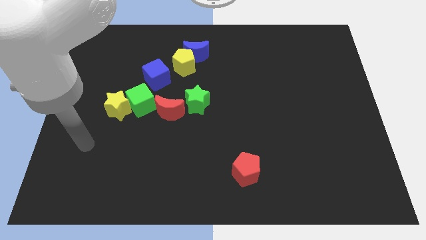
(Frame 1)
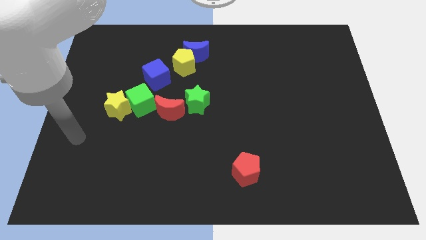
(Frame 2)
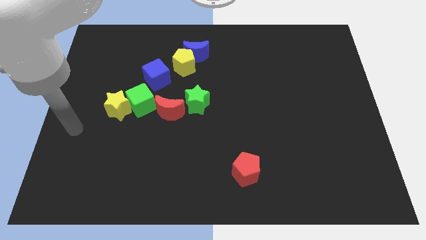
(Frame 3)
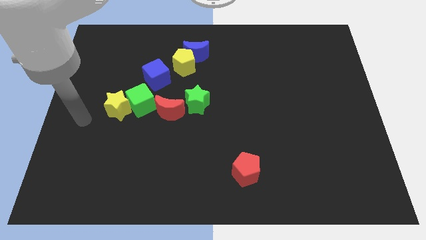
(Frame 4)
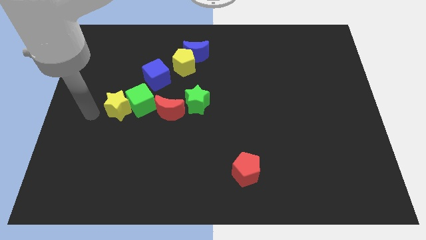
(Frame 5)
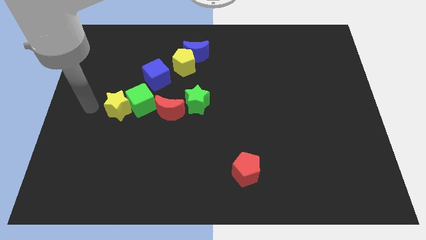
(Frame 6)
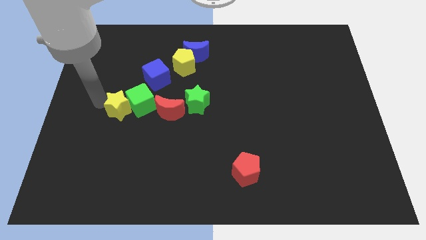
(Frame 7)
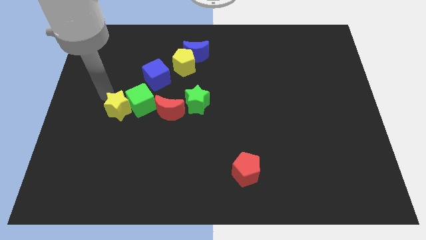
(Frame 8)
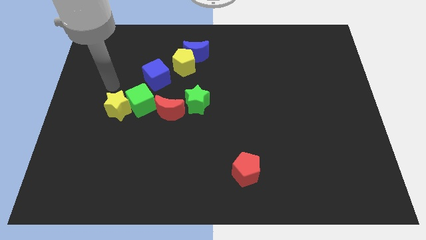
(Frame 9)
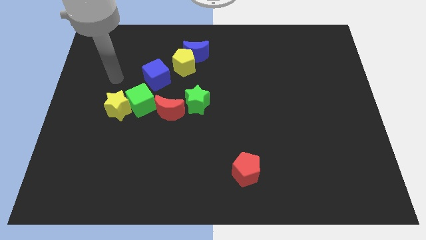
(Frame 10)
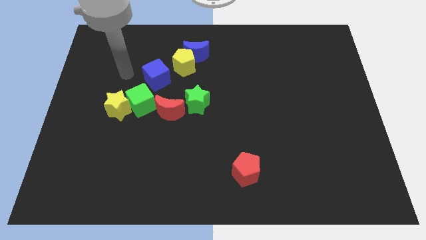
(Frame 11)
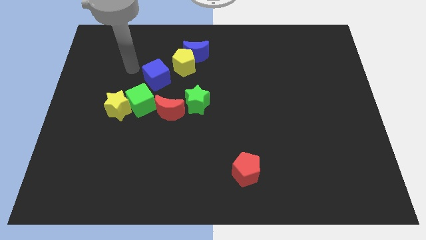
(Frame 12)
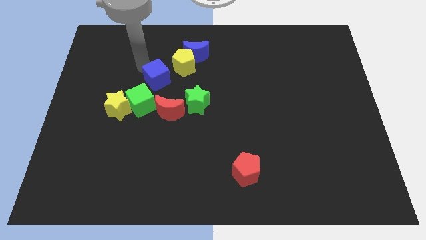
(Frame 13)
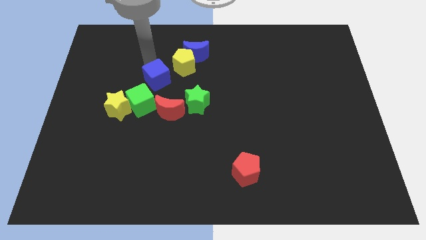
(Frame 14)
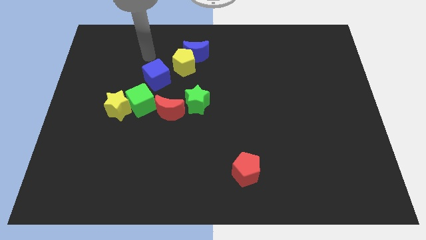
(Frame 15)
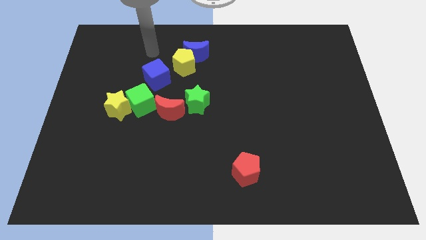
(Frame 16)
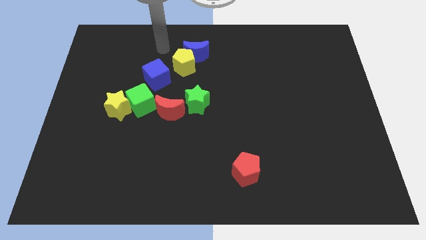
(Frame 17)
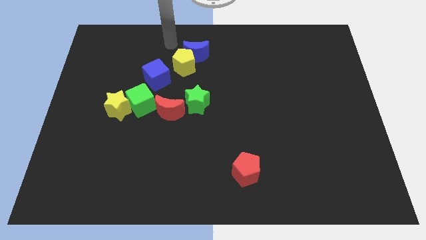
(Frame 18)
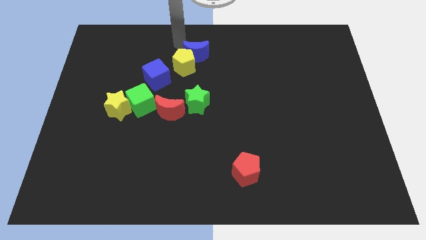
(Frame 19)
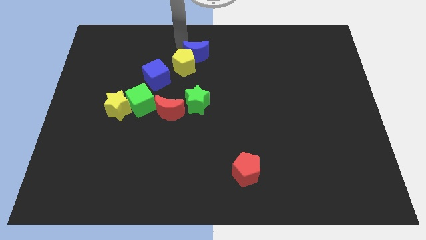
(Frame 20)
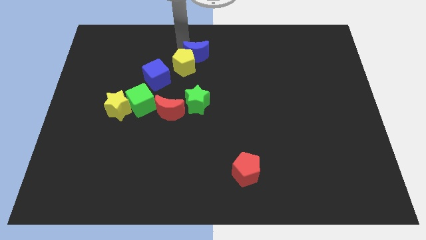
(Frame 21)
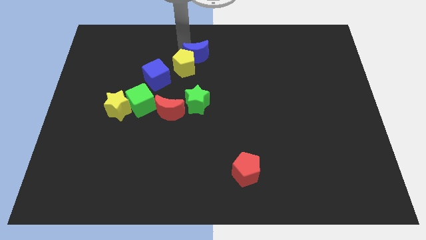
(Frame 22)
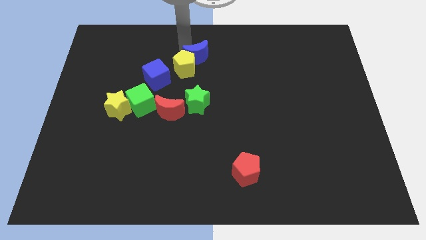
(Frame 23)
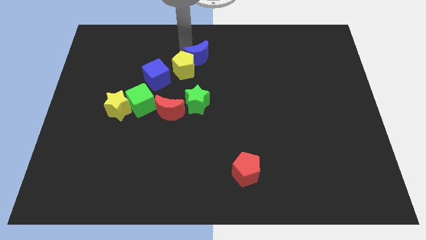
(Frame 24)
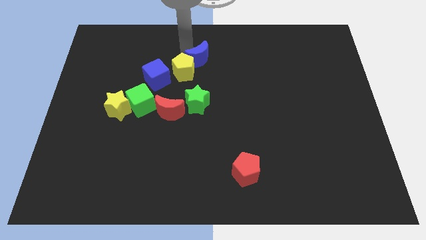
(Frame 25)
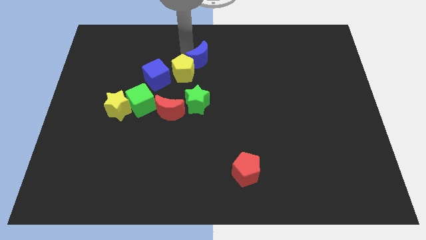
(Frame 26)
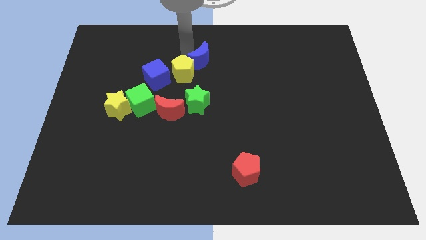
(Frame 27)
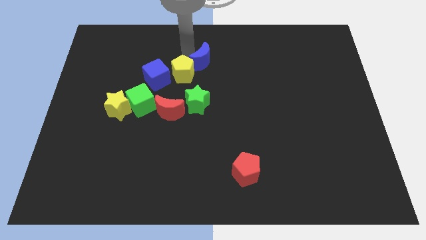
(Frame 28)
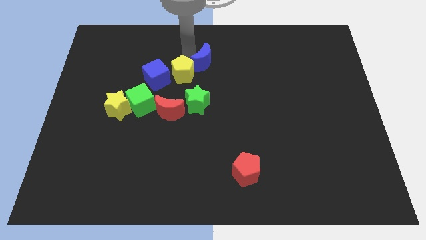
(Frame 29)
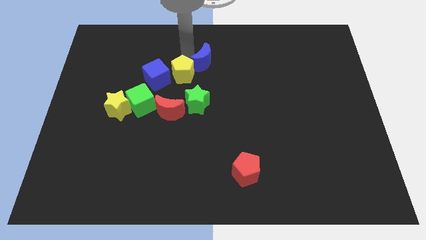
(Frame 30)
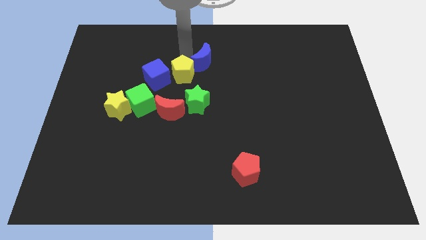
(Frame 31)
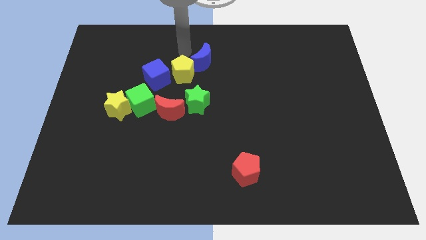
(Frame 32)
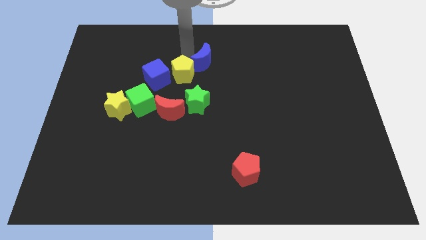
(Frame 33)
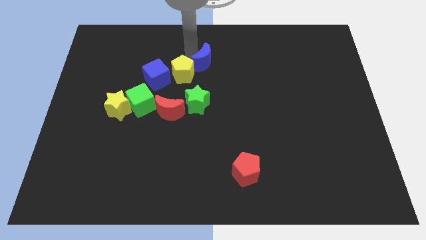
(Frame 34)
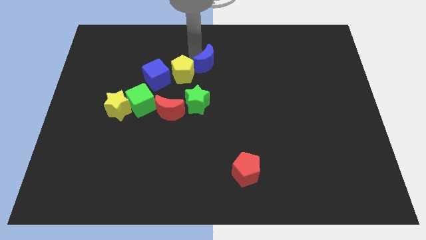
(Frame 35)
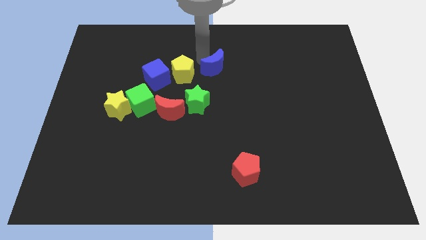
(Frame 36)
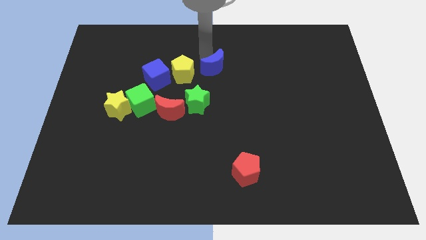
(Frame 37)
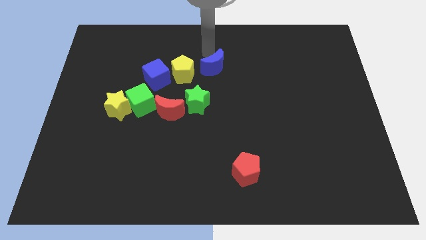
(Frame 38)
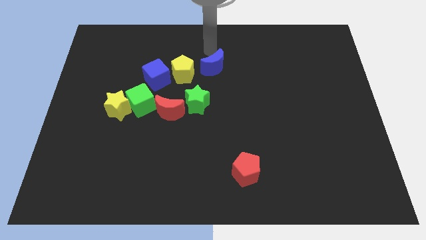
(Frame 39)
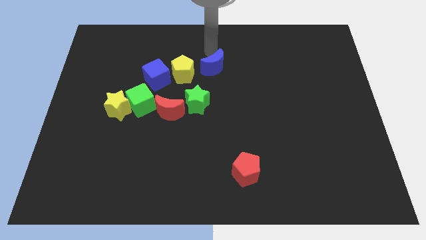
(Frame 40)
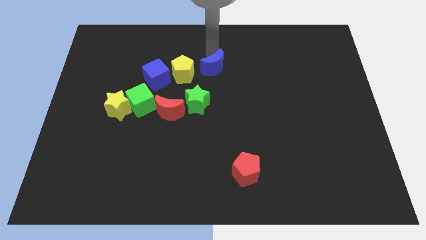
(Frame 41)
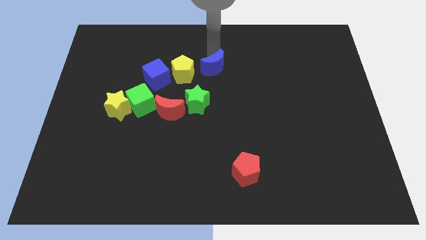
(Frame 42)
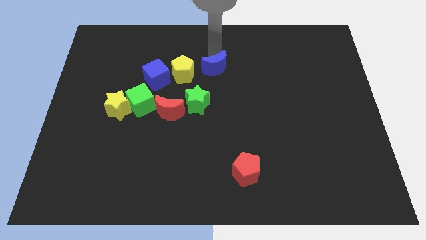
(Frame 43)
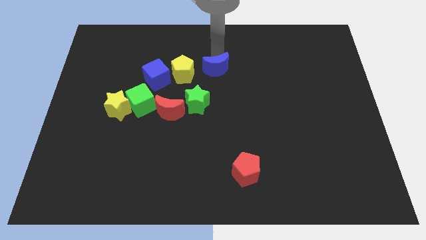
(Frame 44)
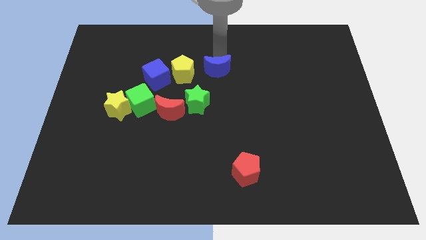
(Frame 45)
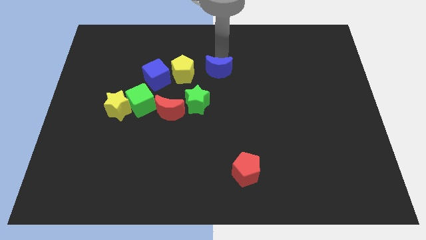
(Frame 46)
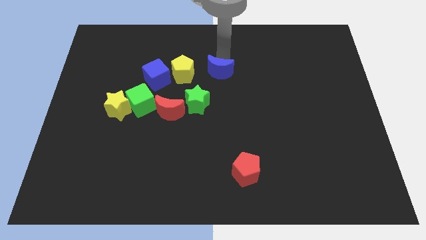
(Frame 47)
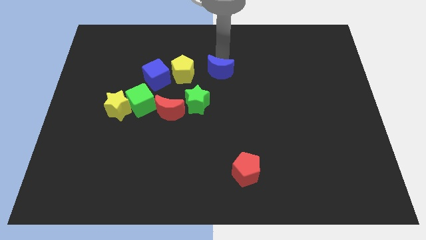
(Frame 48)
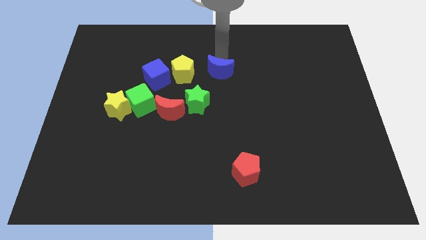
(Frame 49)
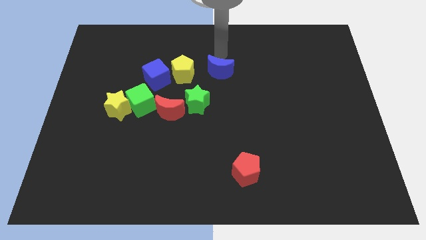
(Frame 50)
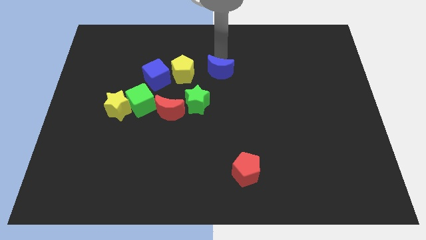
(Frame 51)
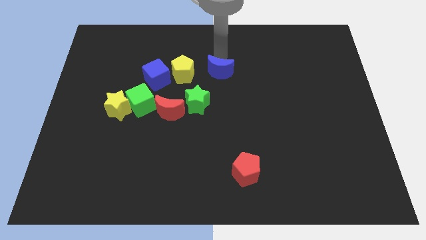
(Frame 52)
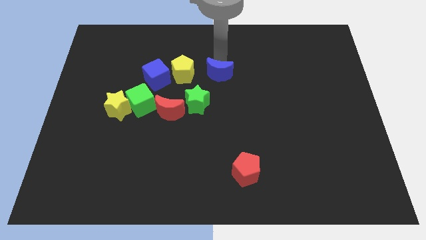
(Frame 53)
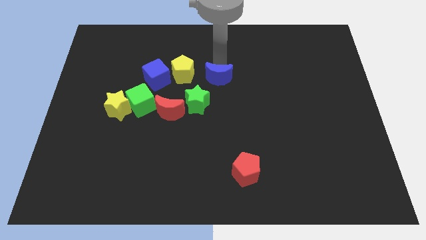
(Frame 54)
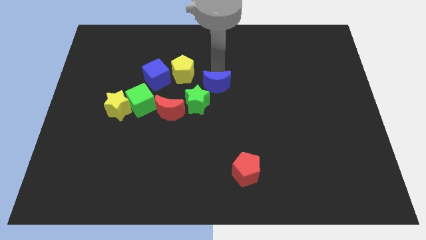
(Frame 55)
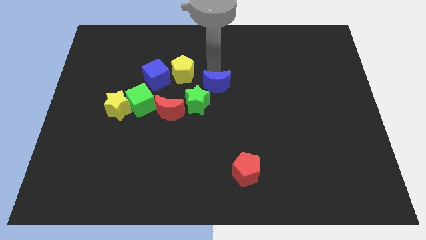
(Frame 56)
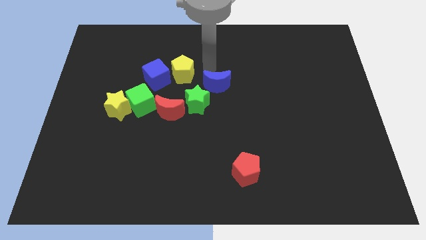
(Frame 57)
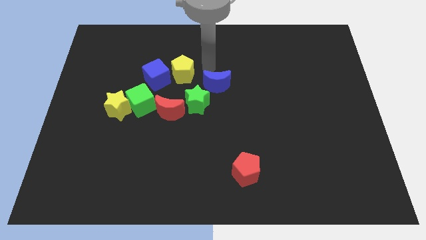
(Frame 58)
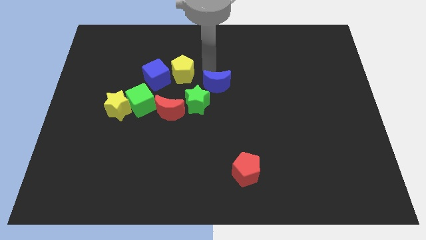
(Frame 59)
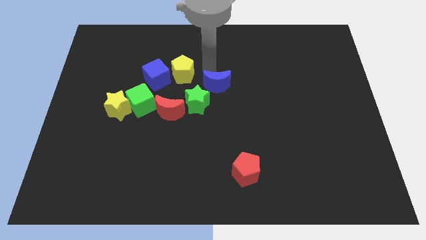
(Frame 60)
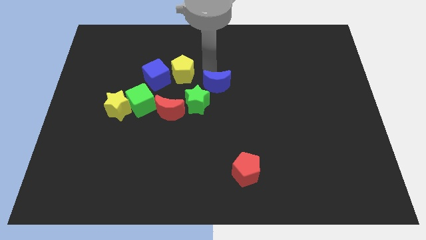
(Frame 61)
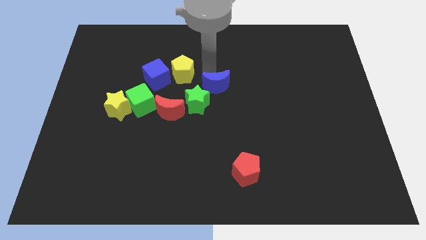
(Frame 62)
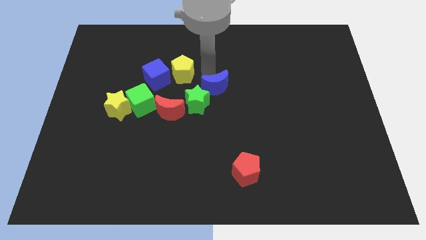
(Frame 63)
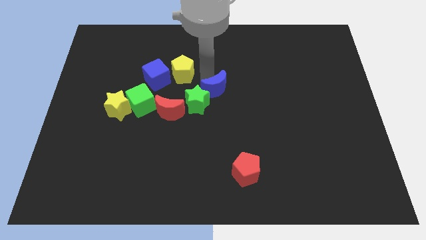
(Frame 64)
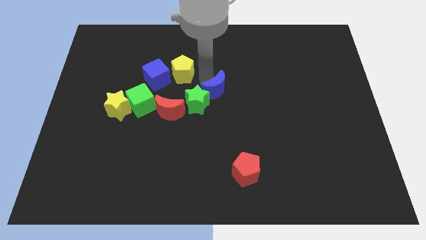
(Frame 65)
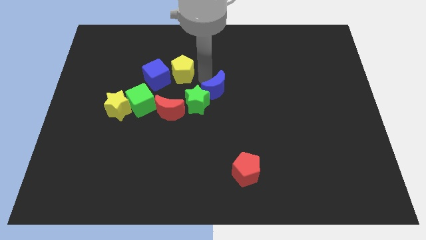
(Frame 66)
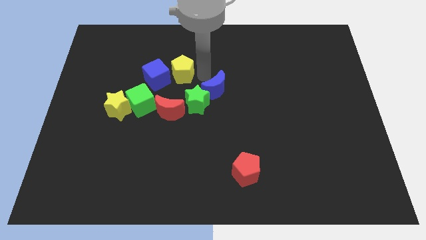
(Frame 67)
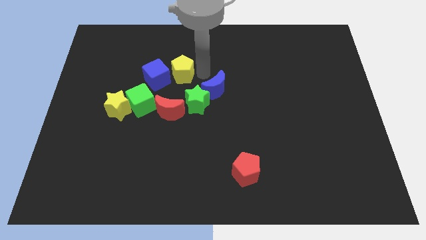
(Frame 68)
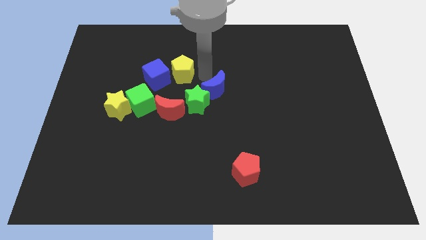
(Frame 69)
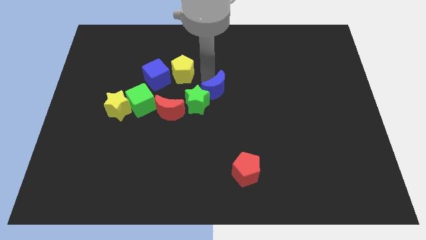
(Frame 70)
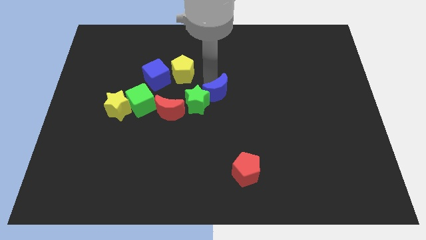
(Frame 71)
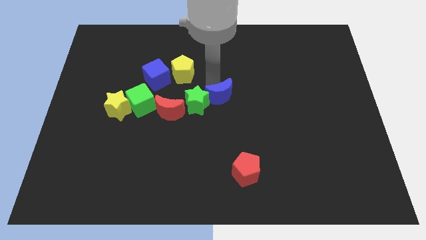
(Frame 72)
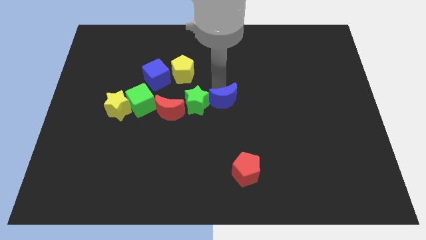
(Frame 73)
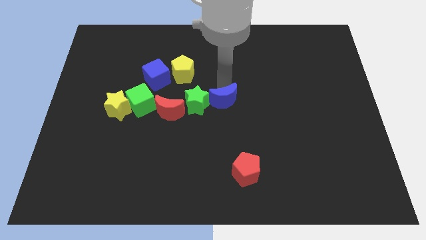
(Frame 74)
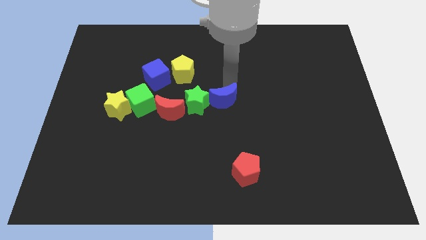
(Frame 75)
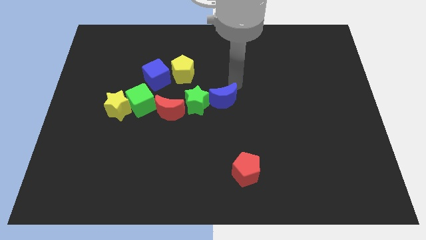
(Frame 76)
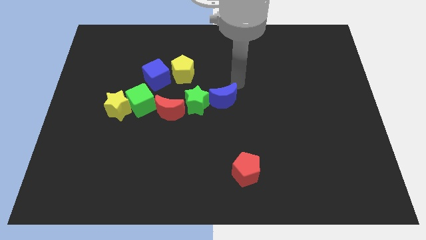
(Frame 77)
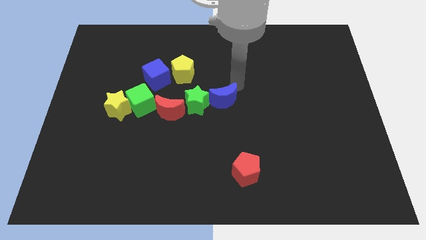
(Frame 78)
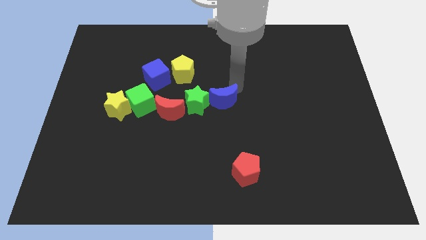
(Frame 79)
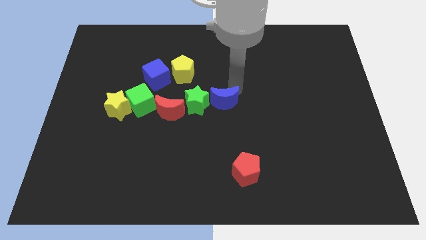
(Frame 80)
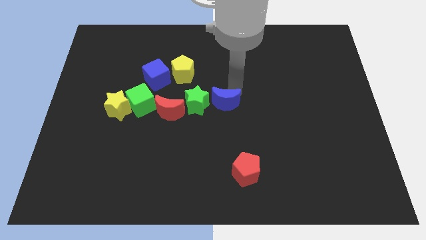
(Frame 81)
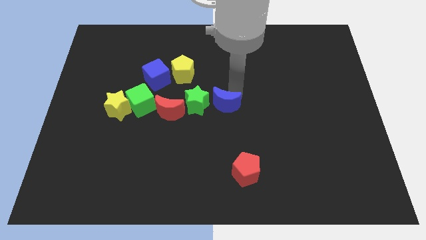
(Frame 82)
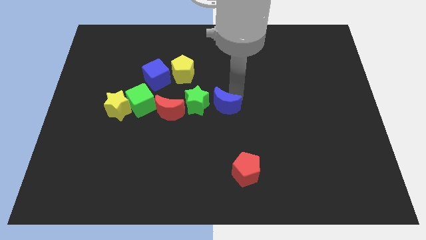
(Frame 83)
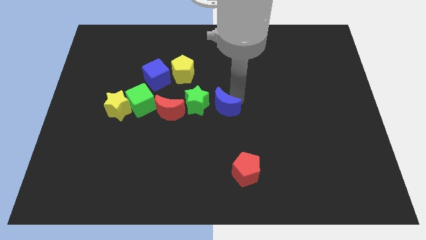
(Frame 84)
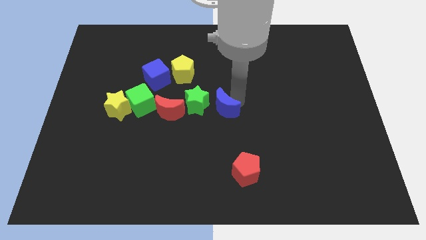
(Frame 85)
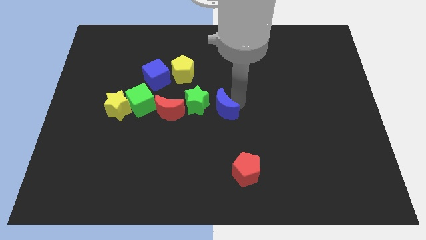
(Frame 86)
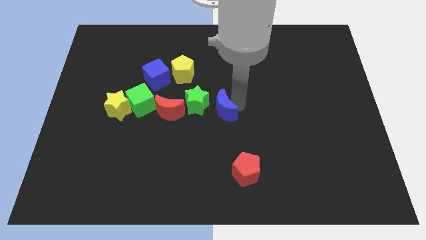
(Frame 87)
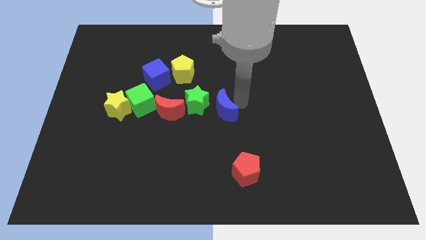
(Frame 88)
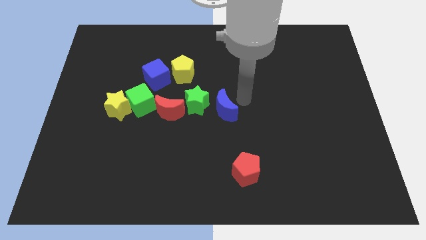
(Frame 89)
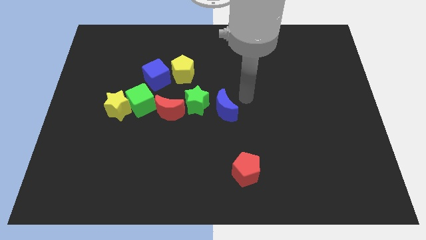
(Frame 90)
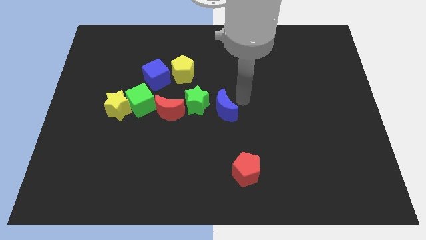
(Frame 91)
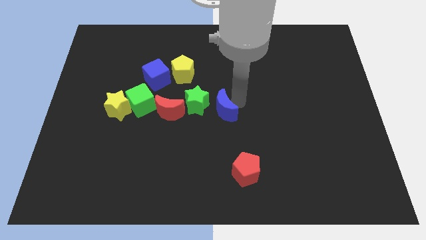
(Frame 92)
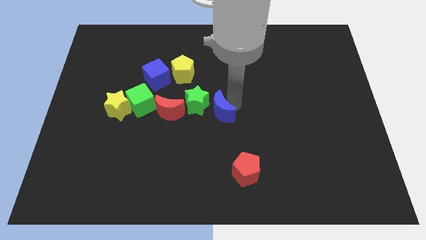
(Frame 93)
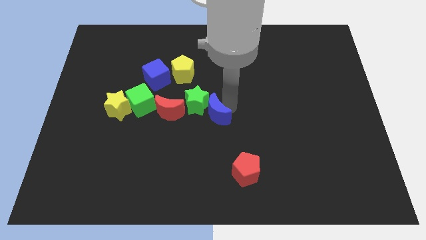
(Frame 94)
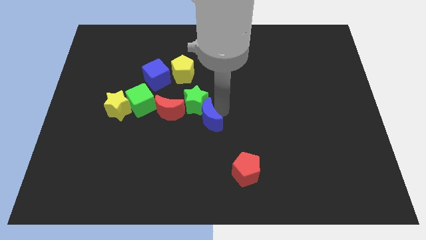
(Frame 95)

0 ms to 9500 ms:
move the blue moon downwards
